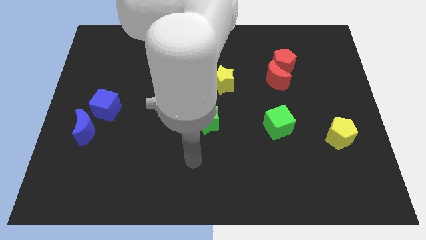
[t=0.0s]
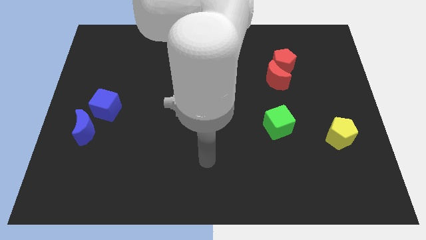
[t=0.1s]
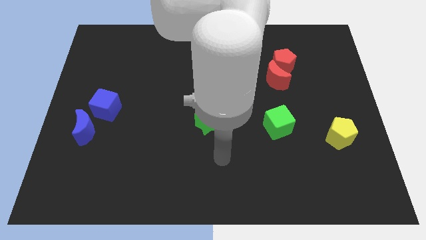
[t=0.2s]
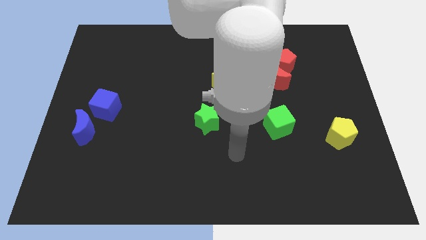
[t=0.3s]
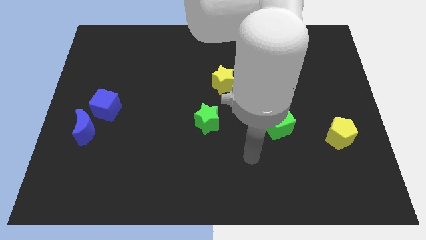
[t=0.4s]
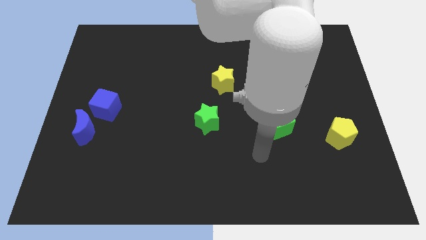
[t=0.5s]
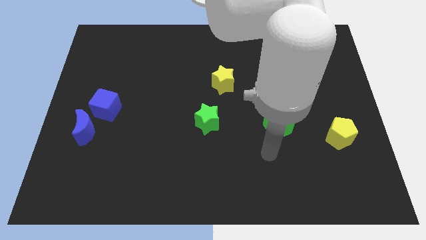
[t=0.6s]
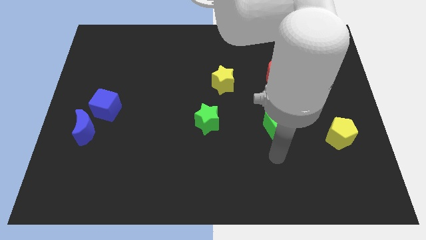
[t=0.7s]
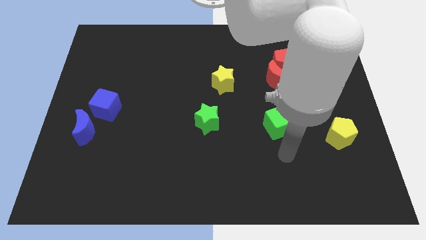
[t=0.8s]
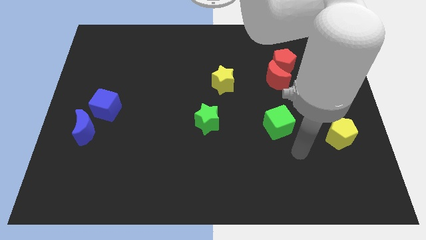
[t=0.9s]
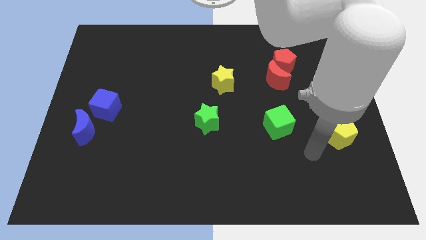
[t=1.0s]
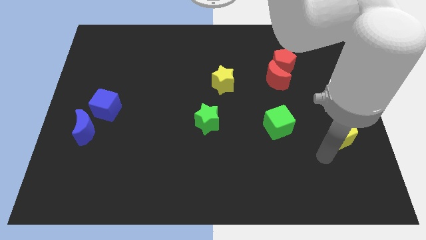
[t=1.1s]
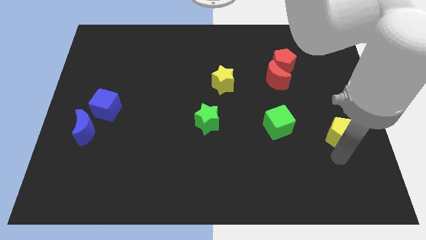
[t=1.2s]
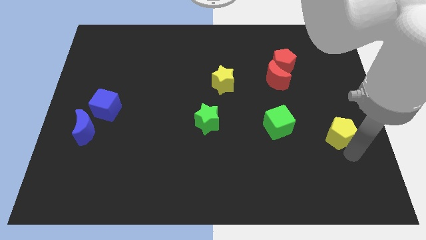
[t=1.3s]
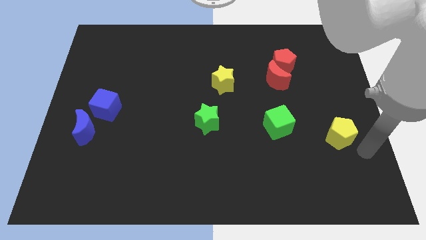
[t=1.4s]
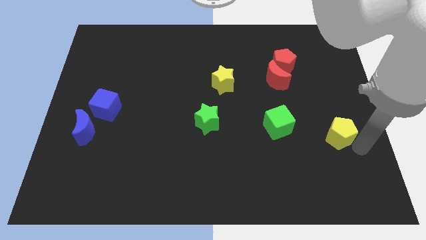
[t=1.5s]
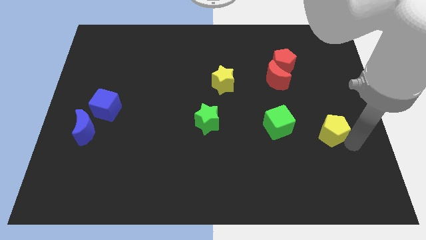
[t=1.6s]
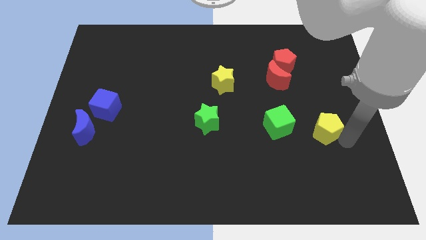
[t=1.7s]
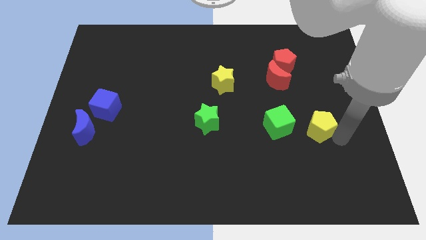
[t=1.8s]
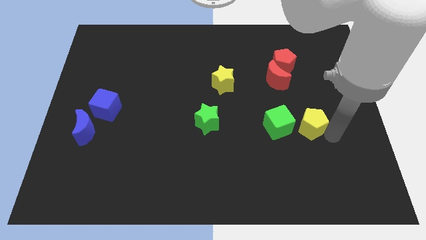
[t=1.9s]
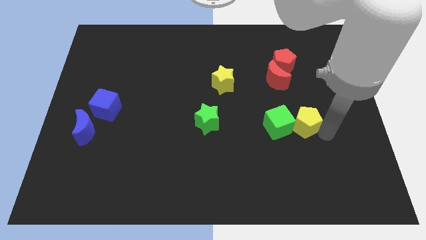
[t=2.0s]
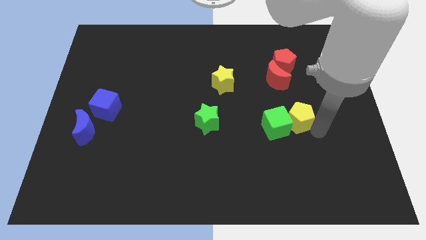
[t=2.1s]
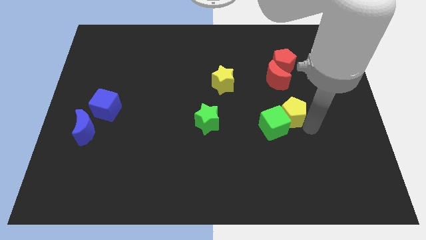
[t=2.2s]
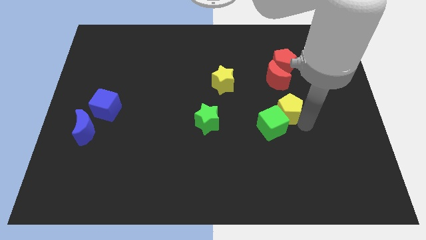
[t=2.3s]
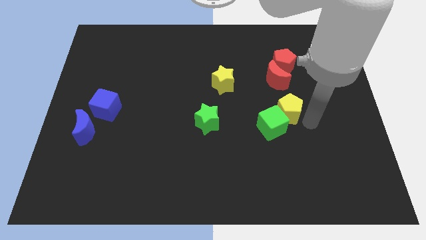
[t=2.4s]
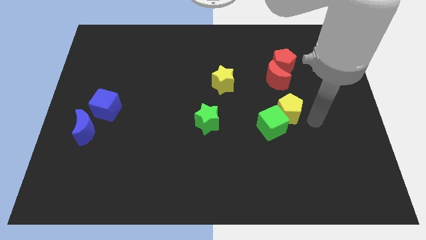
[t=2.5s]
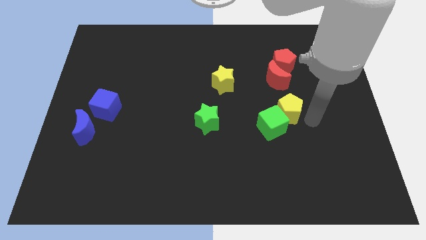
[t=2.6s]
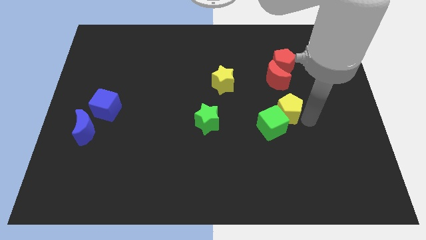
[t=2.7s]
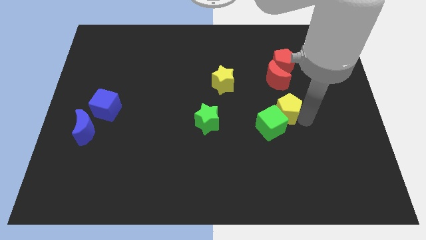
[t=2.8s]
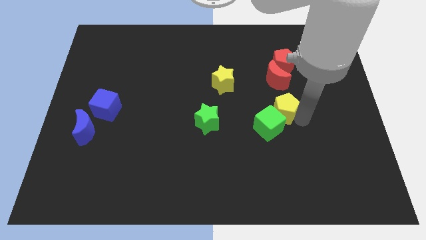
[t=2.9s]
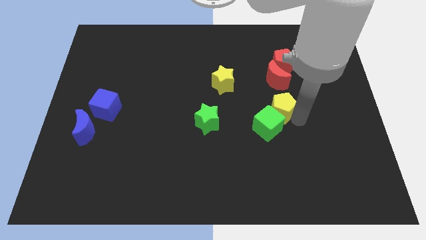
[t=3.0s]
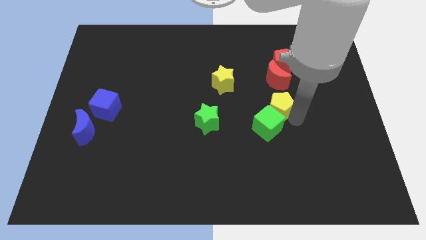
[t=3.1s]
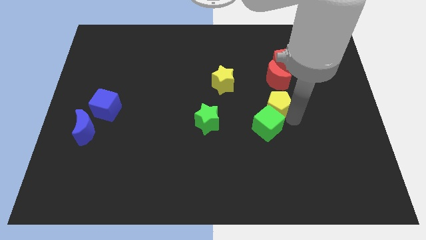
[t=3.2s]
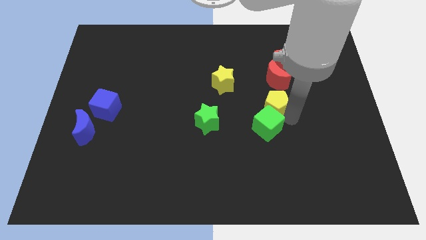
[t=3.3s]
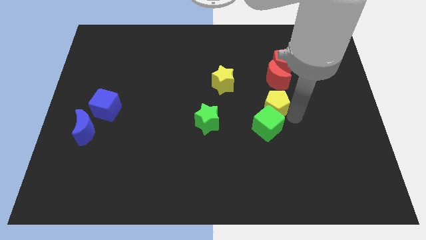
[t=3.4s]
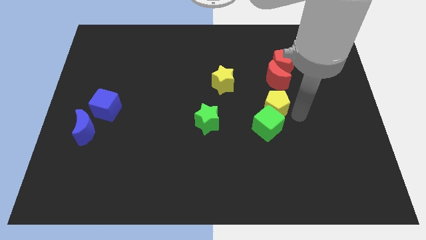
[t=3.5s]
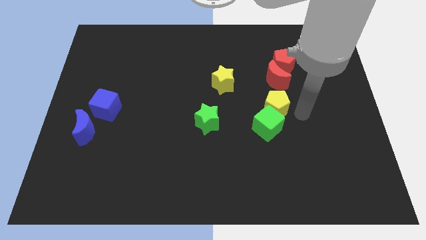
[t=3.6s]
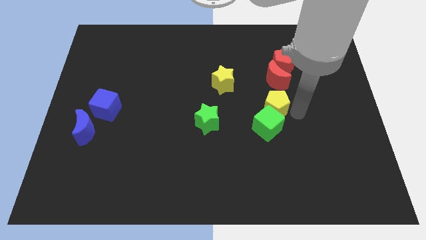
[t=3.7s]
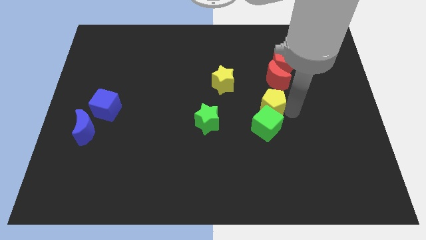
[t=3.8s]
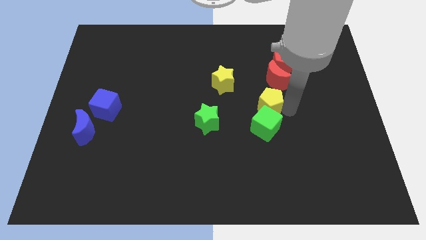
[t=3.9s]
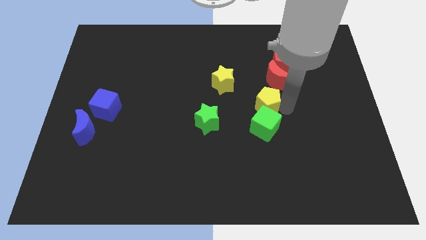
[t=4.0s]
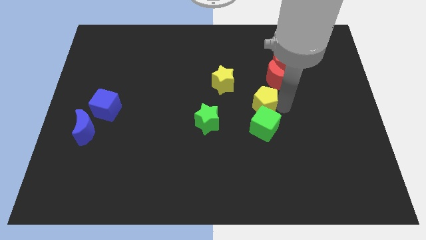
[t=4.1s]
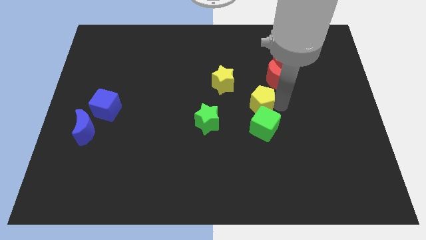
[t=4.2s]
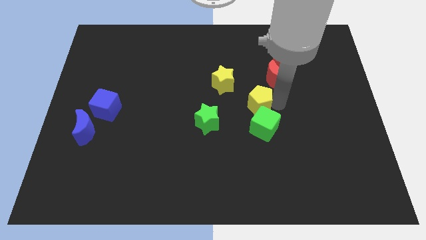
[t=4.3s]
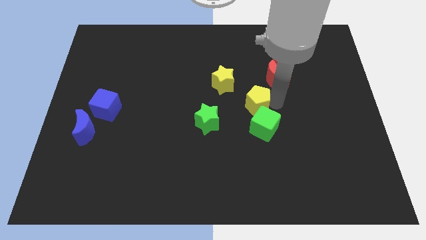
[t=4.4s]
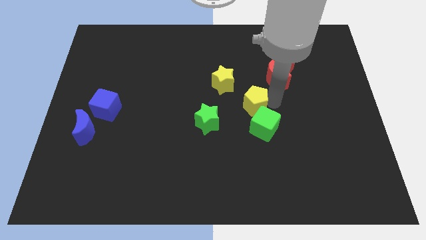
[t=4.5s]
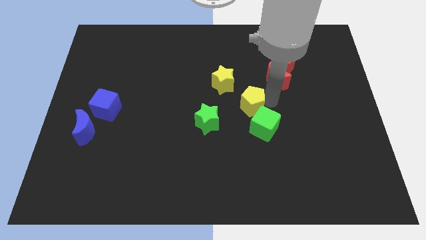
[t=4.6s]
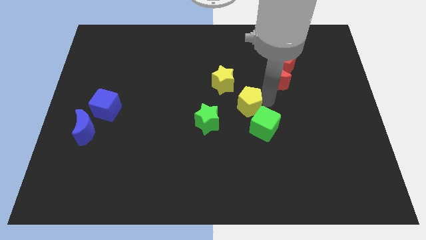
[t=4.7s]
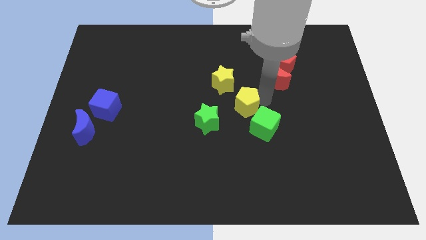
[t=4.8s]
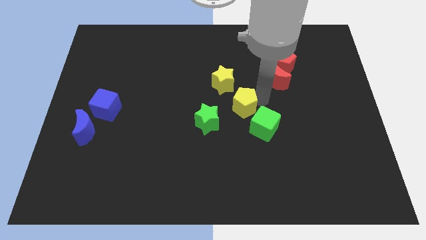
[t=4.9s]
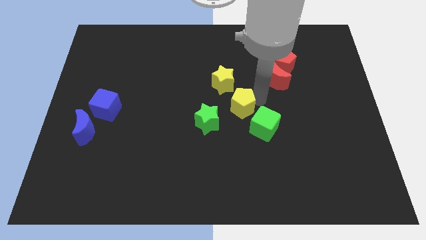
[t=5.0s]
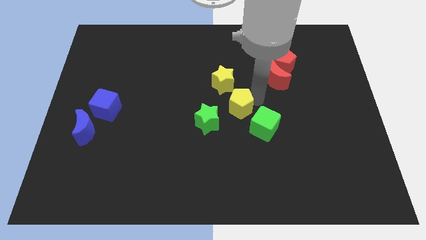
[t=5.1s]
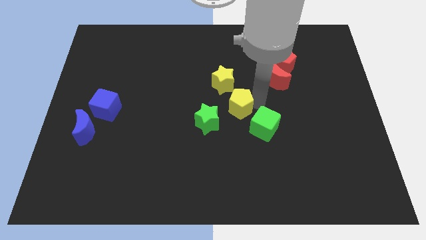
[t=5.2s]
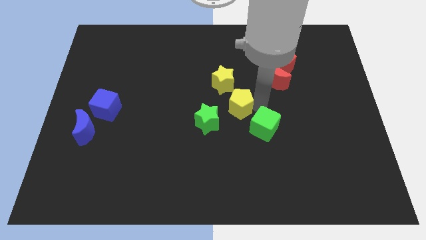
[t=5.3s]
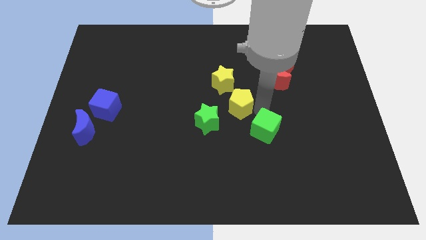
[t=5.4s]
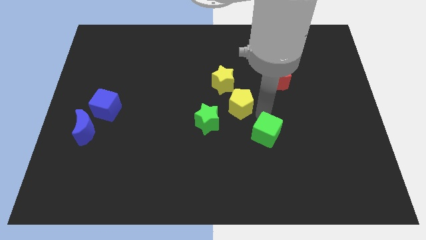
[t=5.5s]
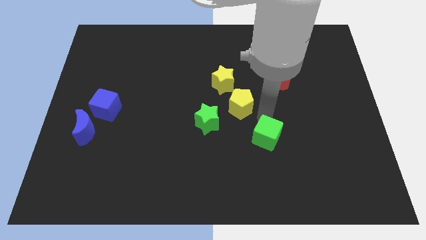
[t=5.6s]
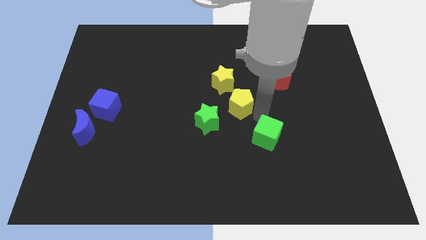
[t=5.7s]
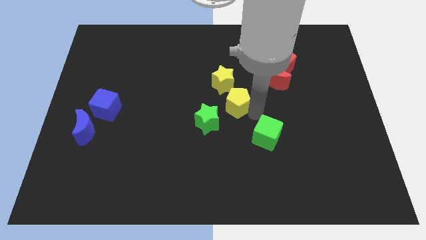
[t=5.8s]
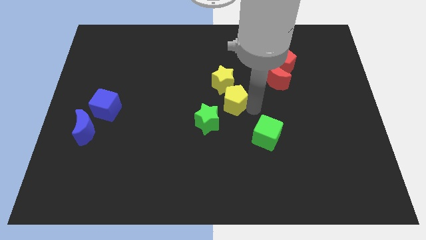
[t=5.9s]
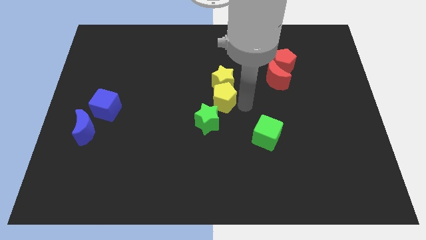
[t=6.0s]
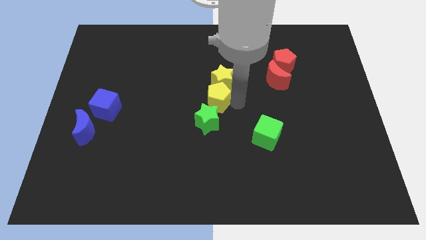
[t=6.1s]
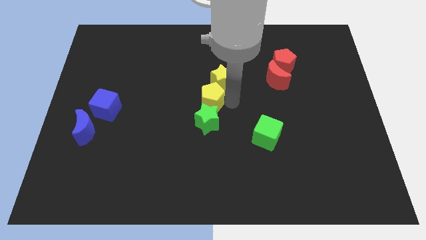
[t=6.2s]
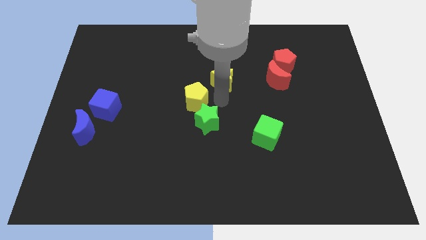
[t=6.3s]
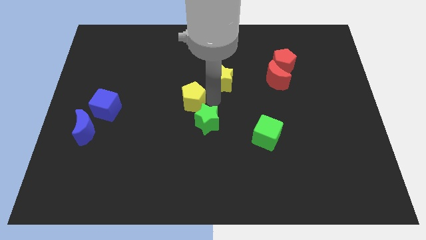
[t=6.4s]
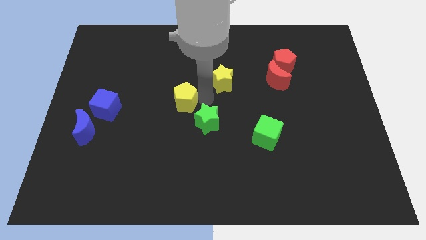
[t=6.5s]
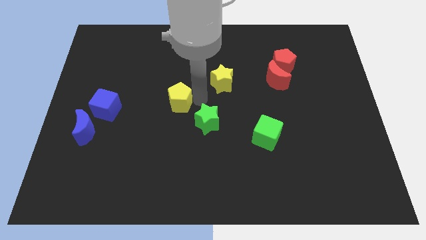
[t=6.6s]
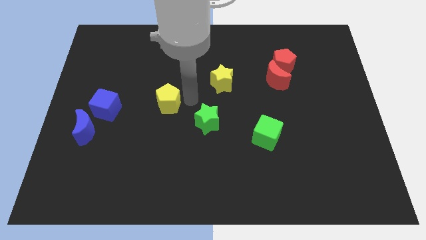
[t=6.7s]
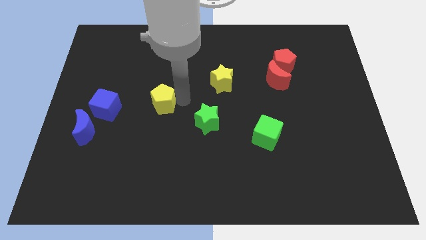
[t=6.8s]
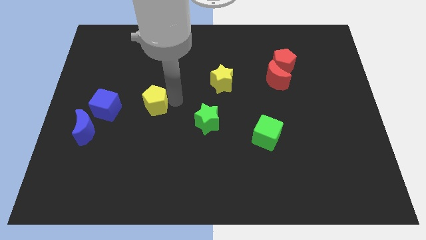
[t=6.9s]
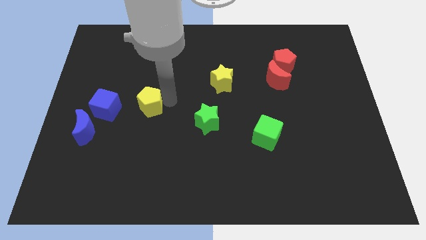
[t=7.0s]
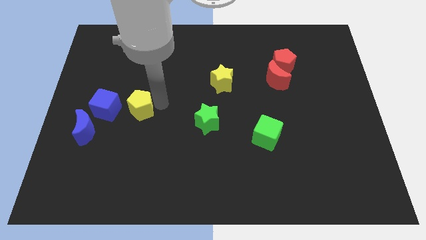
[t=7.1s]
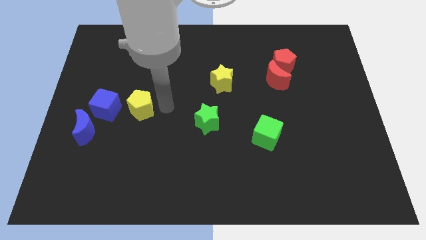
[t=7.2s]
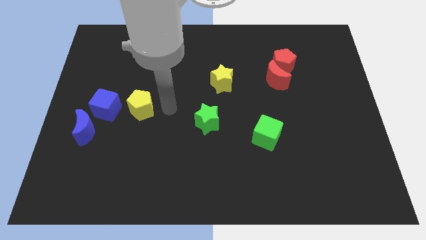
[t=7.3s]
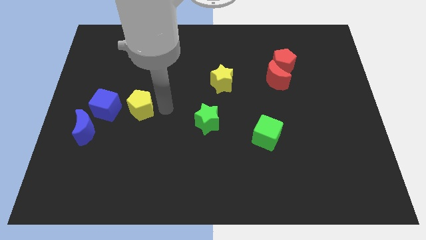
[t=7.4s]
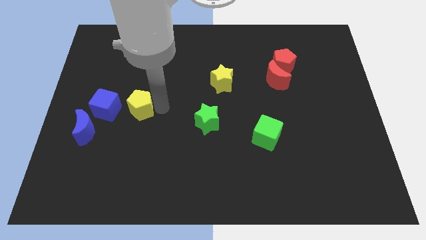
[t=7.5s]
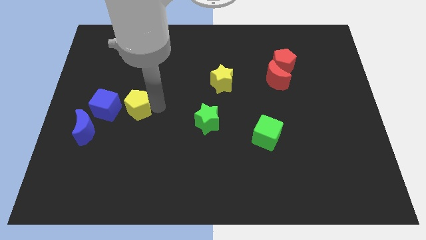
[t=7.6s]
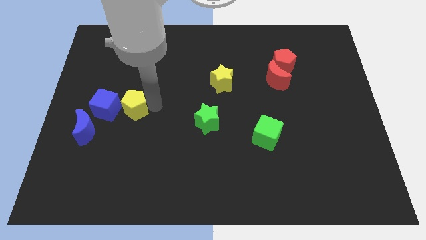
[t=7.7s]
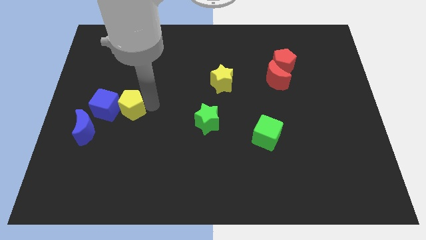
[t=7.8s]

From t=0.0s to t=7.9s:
move the yellow pentagon close to the blue cube

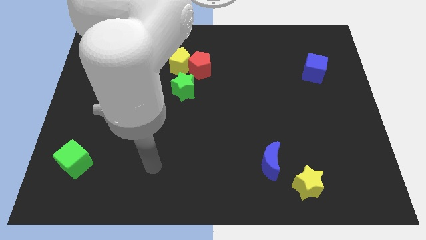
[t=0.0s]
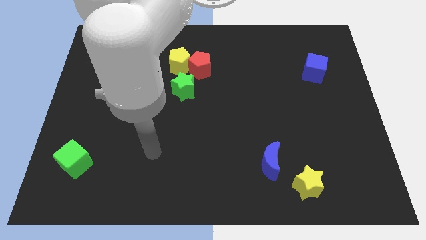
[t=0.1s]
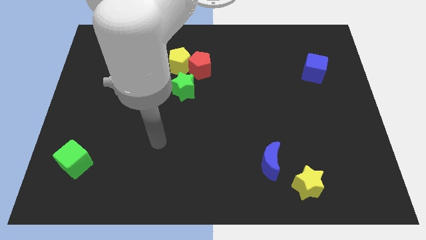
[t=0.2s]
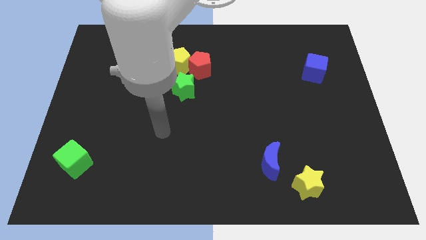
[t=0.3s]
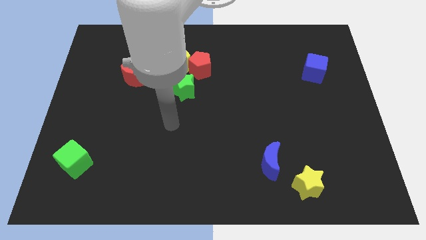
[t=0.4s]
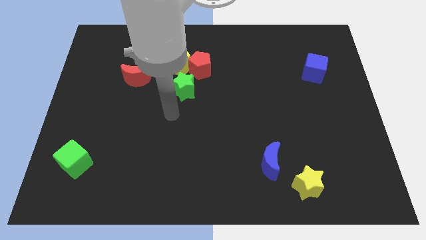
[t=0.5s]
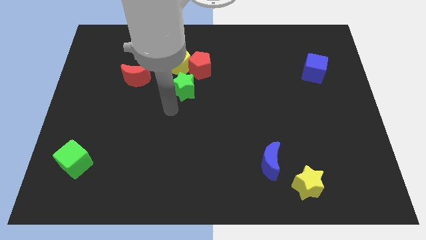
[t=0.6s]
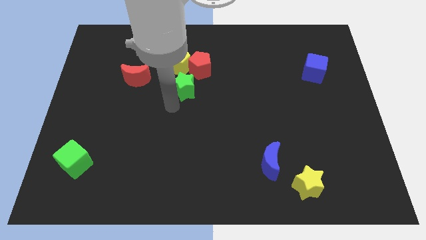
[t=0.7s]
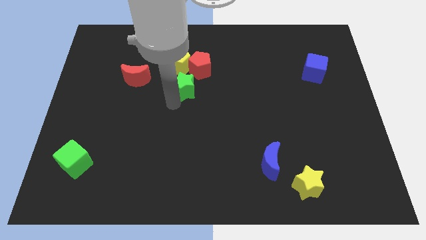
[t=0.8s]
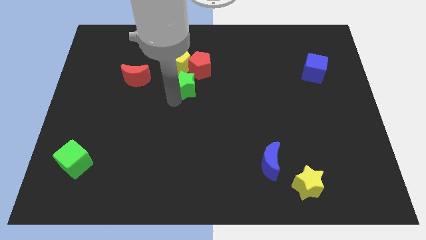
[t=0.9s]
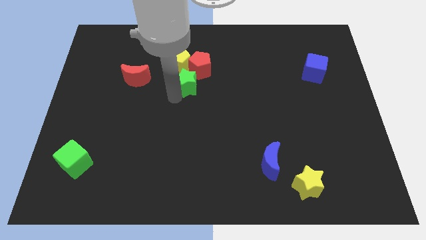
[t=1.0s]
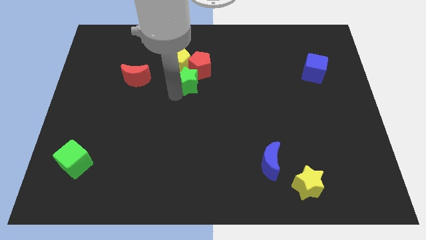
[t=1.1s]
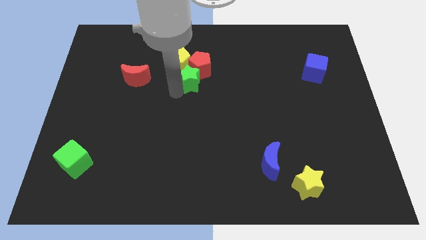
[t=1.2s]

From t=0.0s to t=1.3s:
move the green star to the red pentagon
